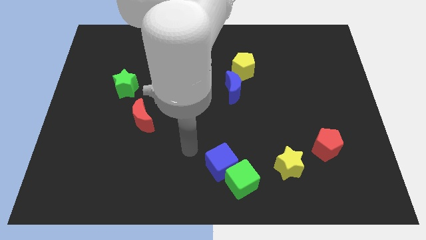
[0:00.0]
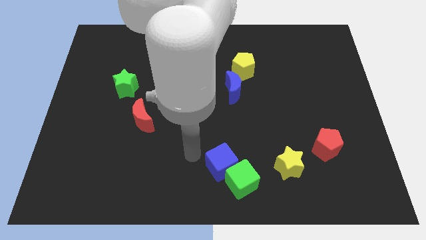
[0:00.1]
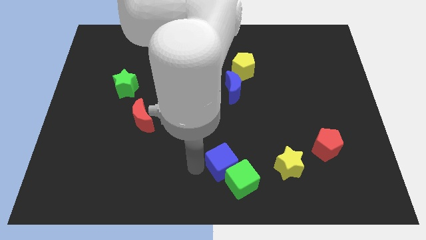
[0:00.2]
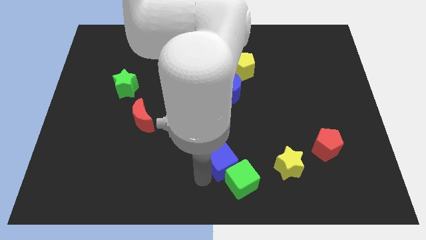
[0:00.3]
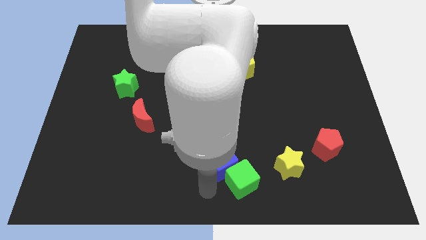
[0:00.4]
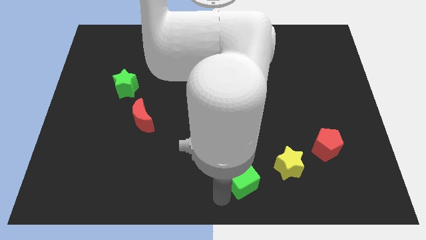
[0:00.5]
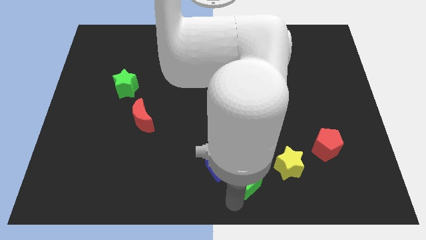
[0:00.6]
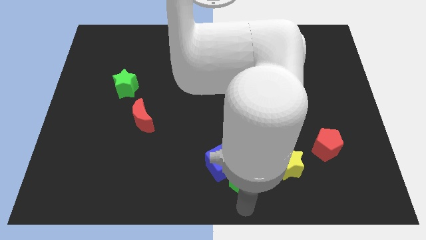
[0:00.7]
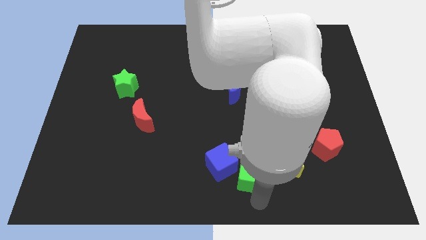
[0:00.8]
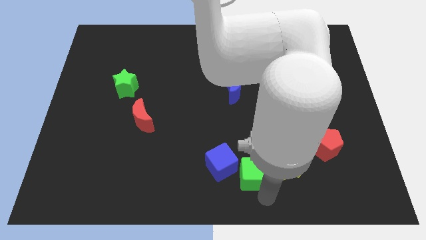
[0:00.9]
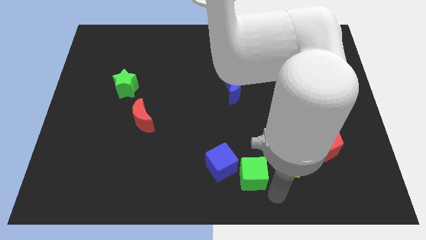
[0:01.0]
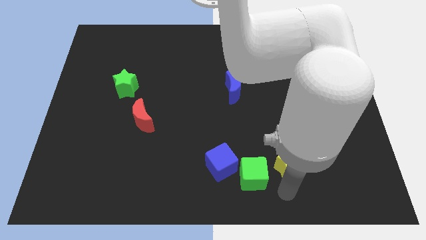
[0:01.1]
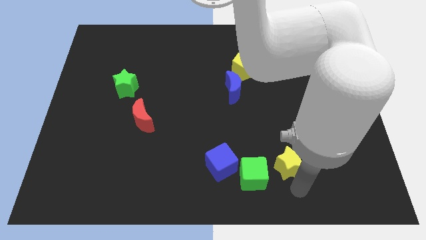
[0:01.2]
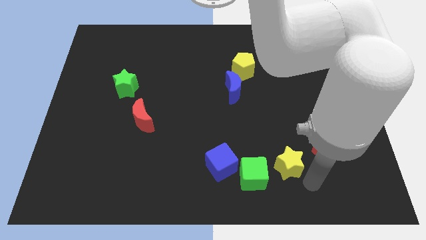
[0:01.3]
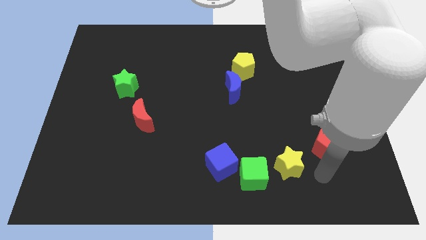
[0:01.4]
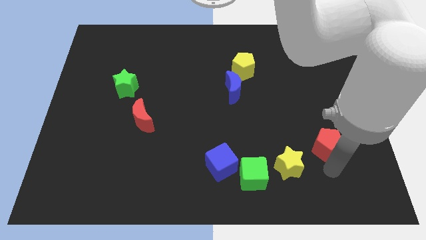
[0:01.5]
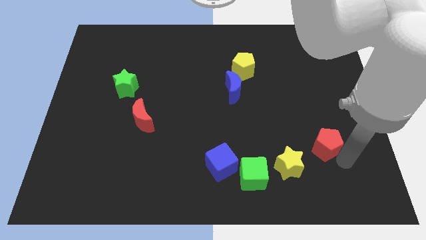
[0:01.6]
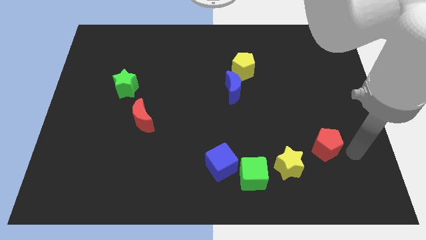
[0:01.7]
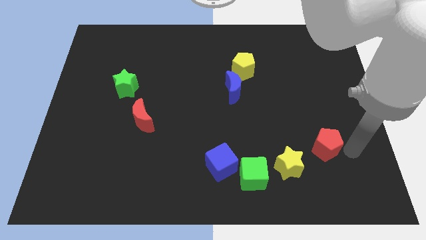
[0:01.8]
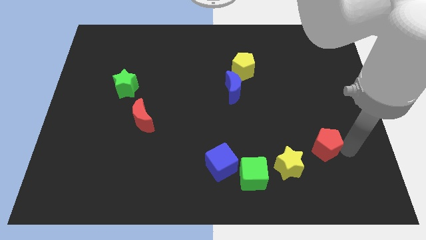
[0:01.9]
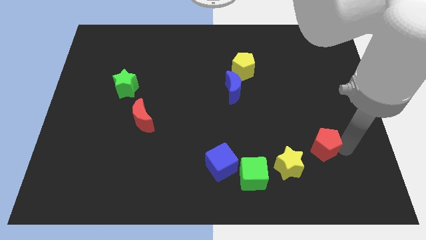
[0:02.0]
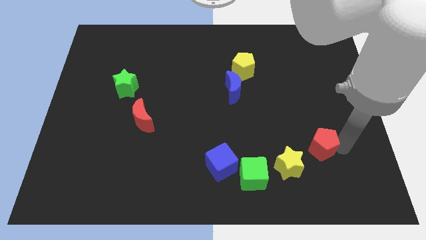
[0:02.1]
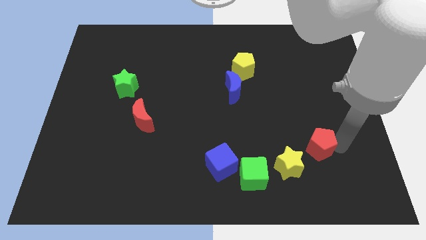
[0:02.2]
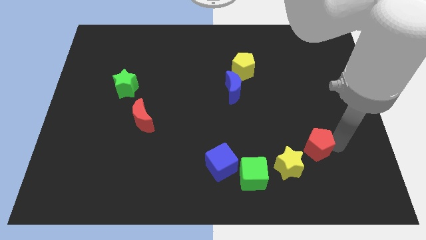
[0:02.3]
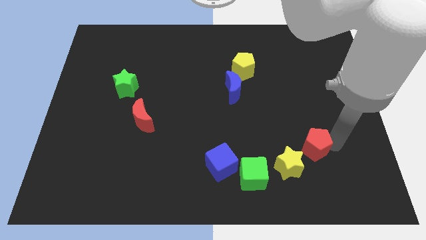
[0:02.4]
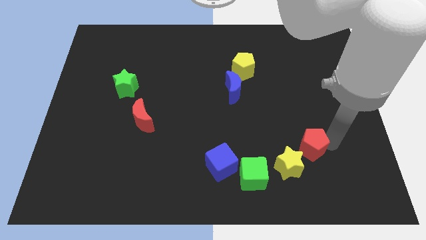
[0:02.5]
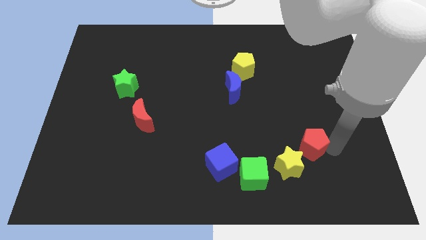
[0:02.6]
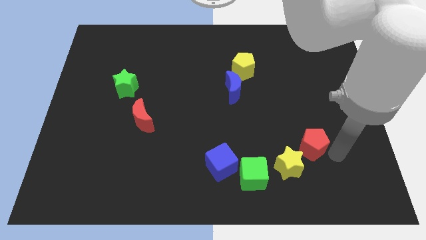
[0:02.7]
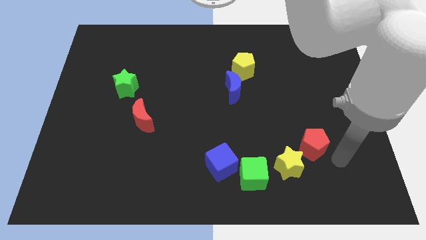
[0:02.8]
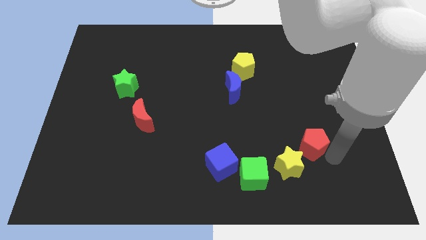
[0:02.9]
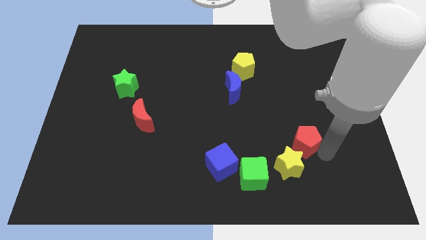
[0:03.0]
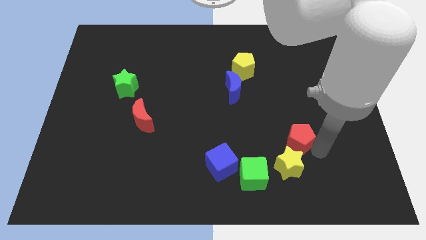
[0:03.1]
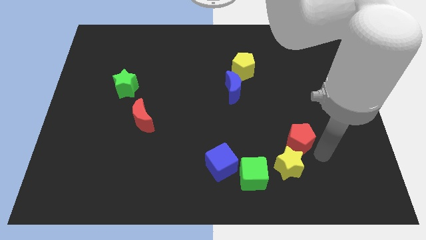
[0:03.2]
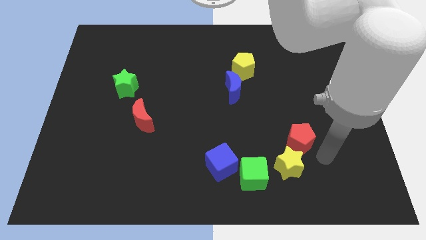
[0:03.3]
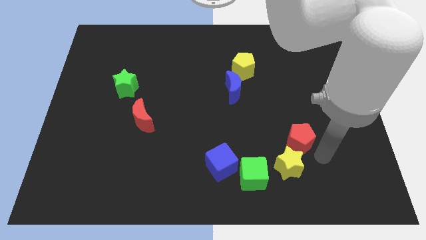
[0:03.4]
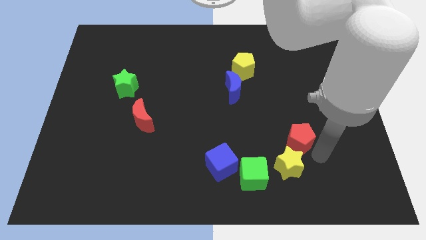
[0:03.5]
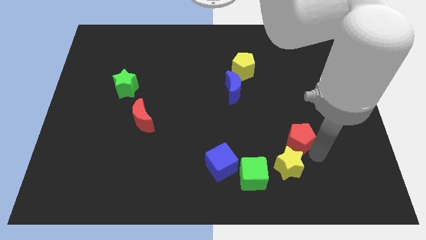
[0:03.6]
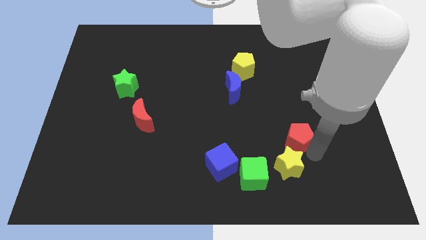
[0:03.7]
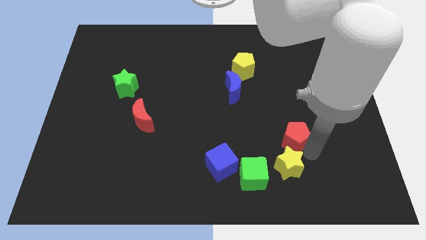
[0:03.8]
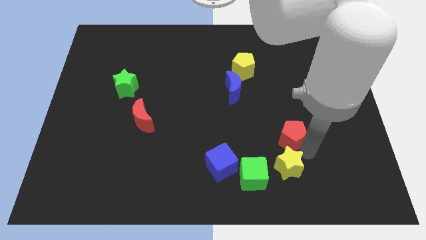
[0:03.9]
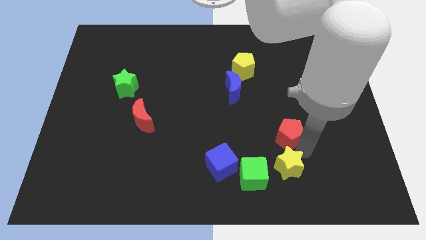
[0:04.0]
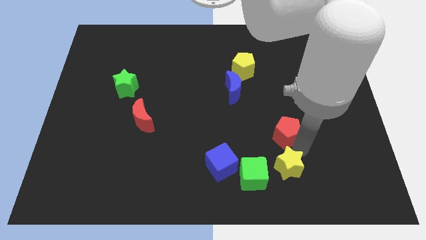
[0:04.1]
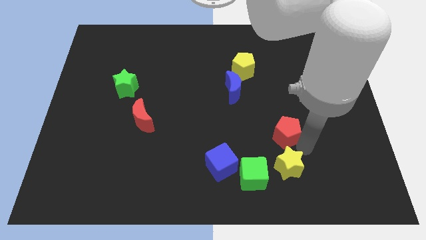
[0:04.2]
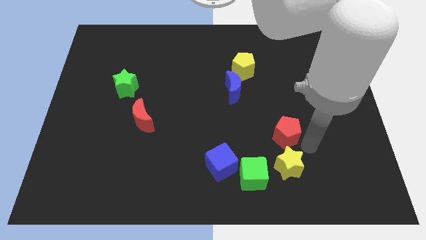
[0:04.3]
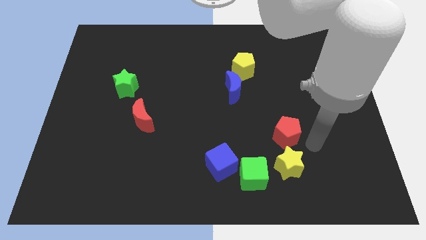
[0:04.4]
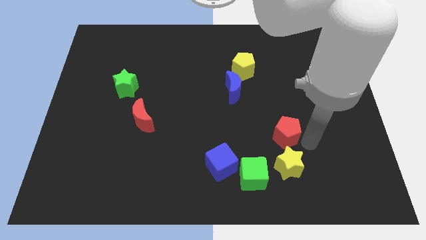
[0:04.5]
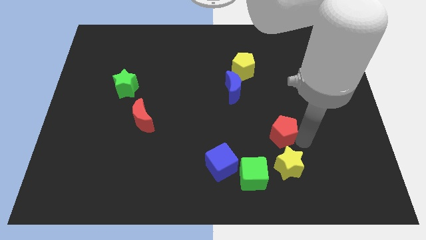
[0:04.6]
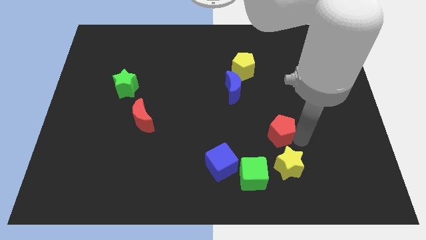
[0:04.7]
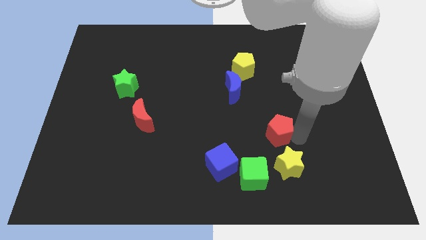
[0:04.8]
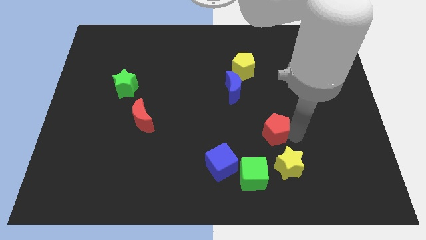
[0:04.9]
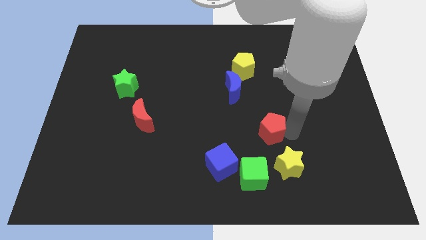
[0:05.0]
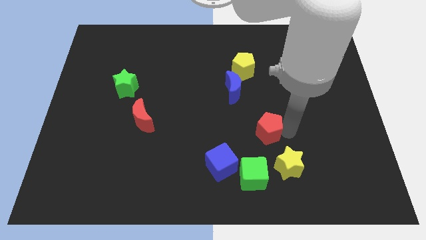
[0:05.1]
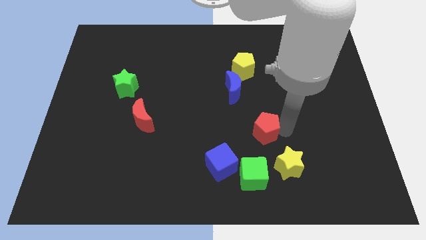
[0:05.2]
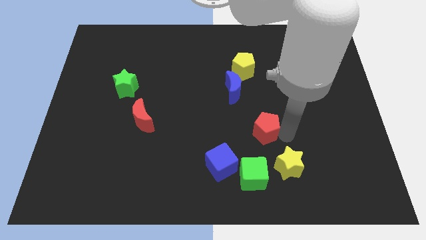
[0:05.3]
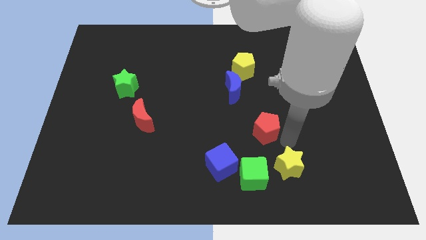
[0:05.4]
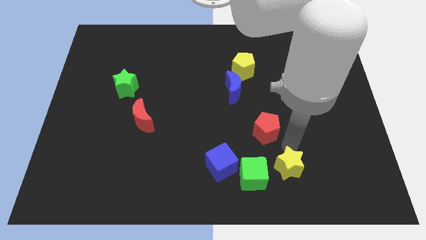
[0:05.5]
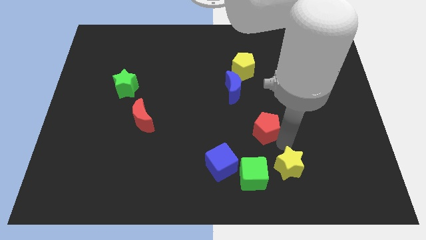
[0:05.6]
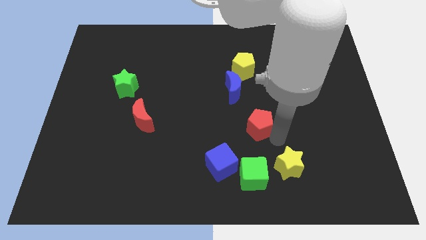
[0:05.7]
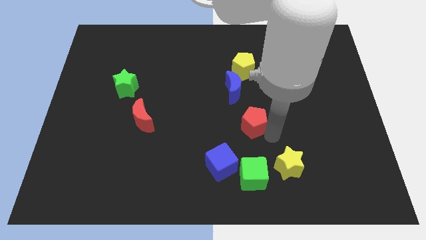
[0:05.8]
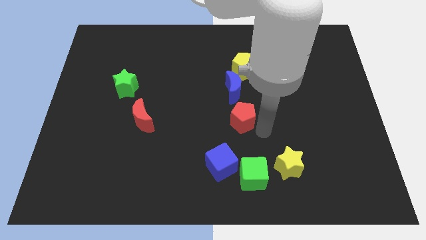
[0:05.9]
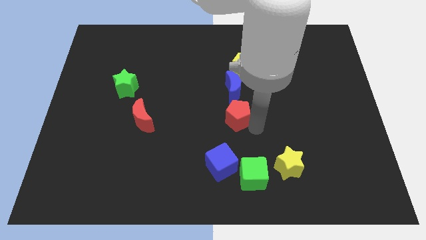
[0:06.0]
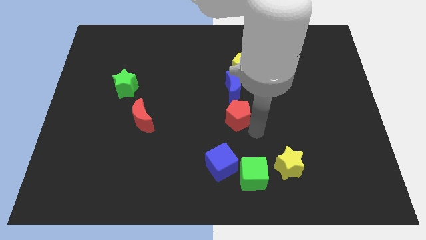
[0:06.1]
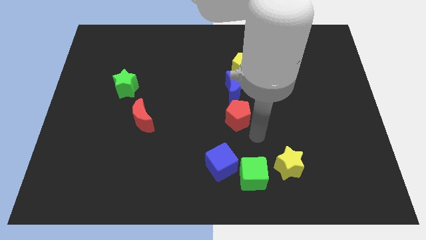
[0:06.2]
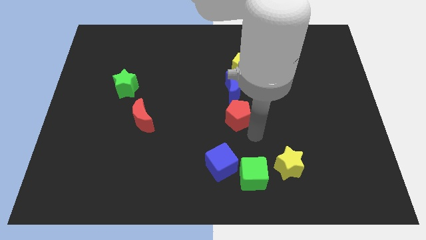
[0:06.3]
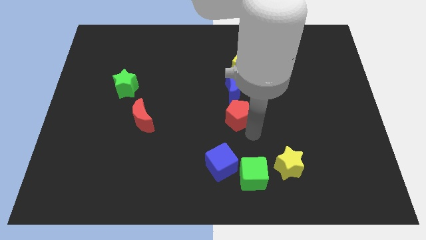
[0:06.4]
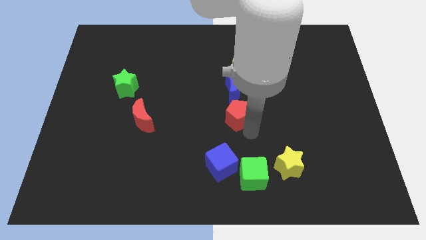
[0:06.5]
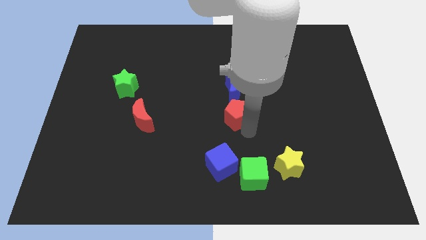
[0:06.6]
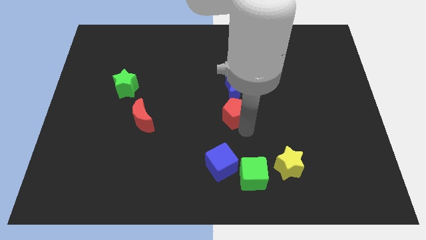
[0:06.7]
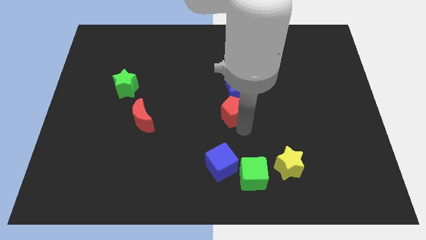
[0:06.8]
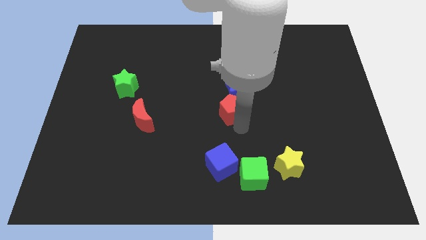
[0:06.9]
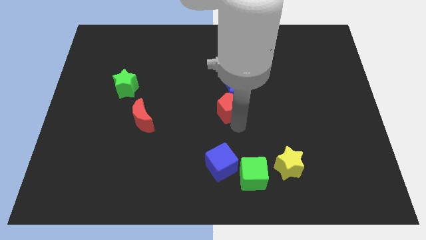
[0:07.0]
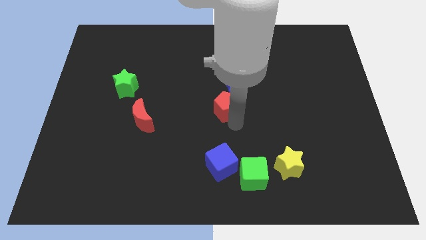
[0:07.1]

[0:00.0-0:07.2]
push the red pentagon diagonally upwards and left

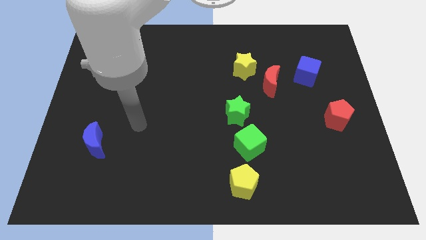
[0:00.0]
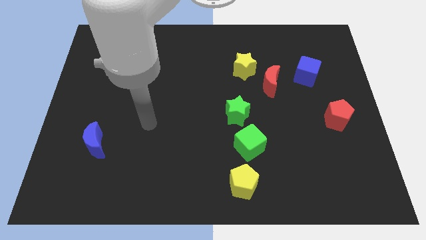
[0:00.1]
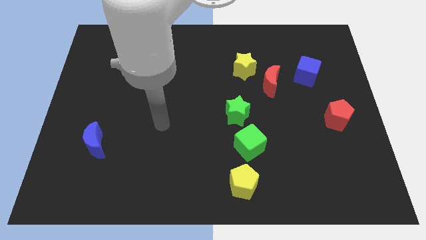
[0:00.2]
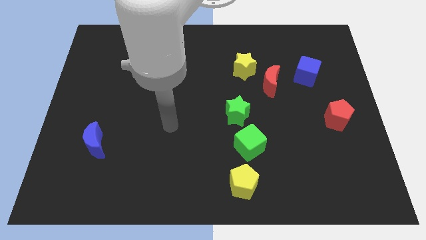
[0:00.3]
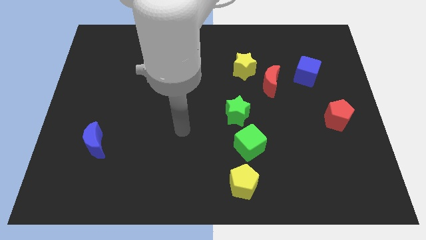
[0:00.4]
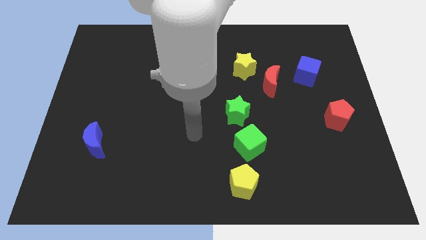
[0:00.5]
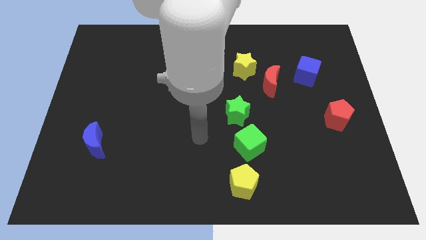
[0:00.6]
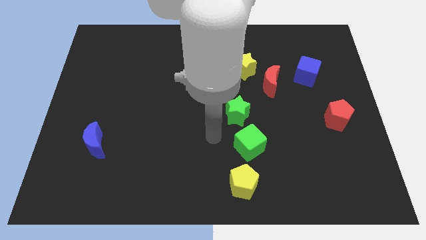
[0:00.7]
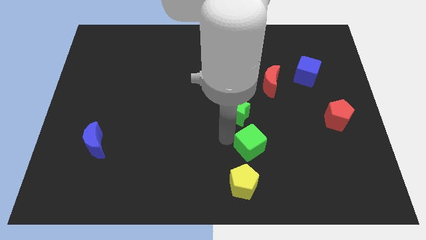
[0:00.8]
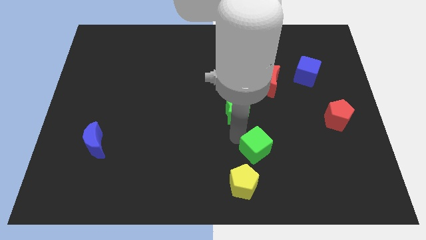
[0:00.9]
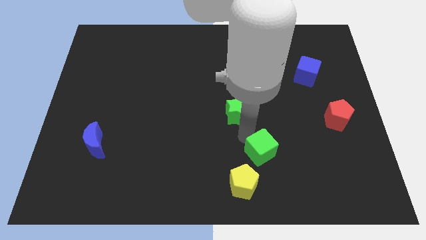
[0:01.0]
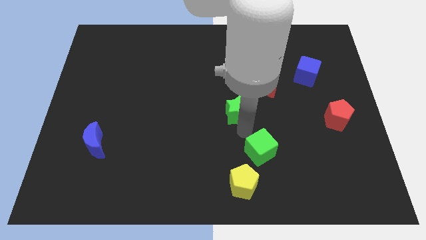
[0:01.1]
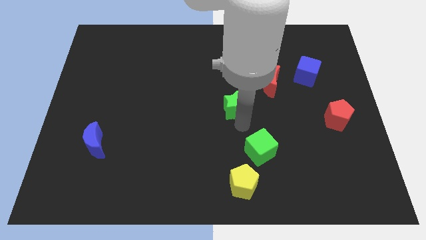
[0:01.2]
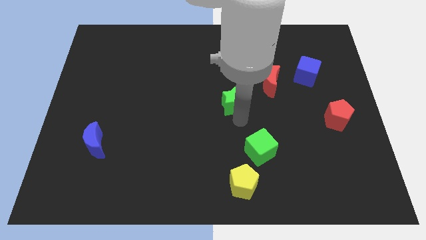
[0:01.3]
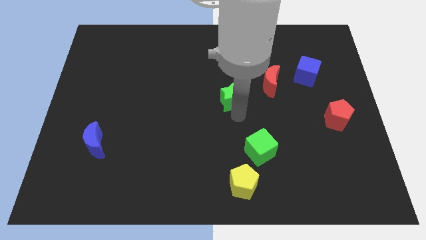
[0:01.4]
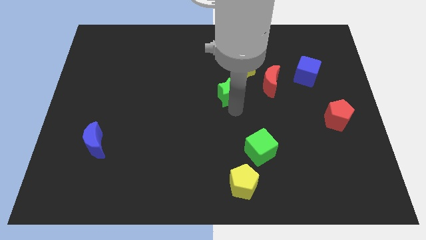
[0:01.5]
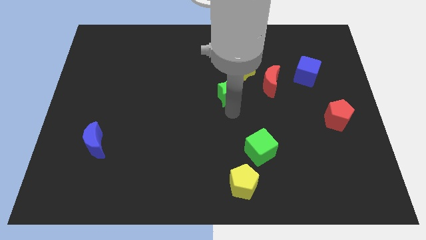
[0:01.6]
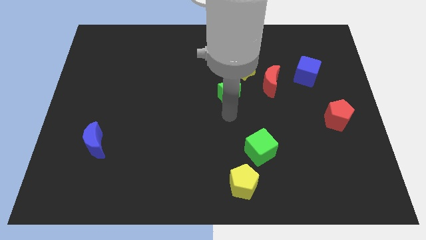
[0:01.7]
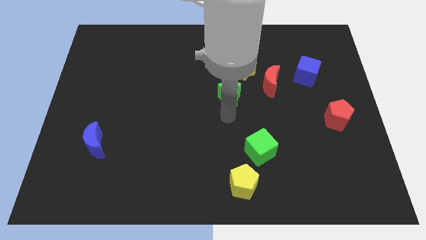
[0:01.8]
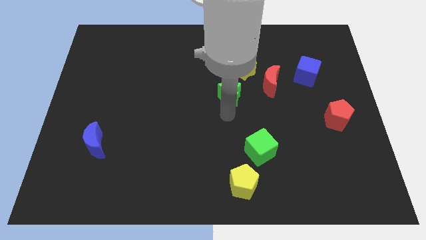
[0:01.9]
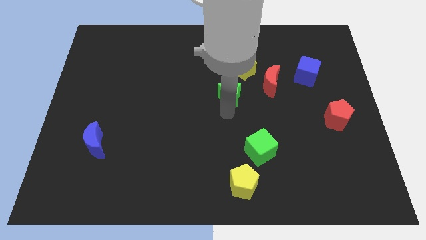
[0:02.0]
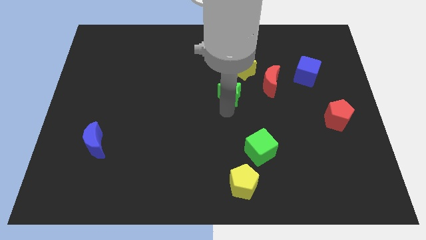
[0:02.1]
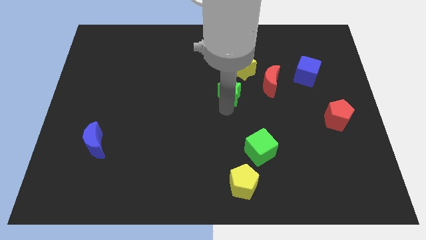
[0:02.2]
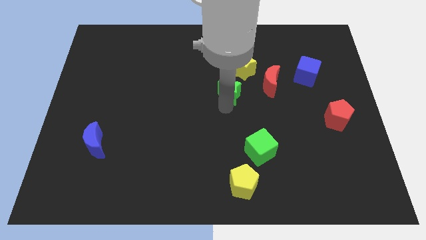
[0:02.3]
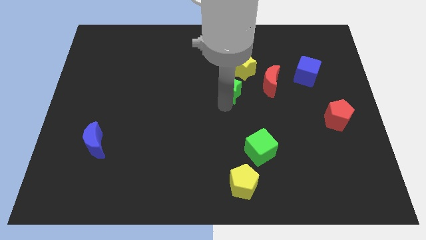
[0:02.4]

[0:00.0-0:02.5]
push the green star slightly upwards
